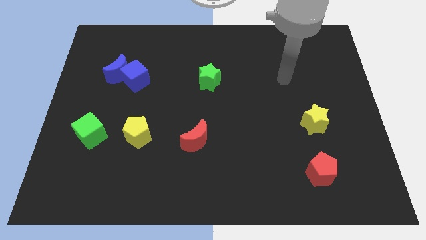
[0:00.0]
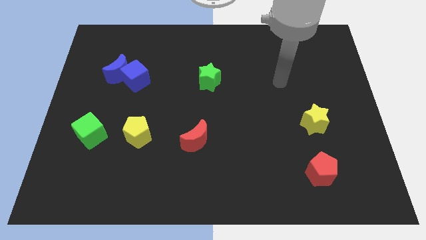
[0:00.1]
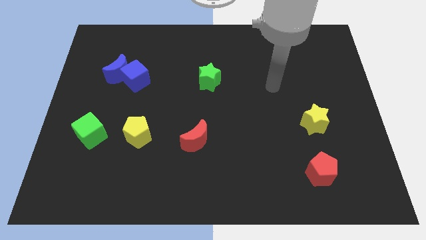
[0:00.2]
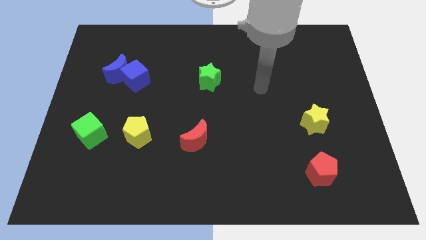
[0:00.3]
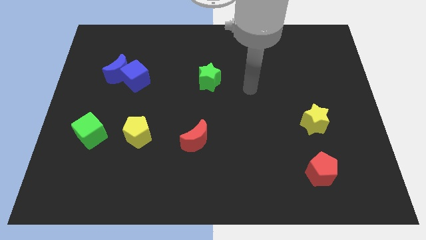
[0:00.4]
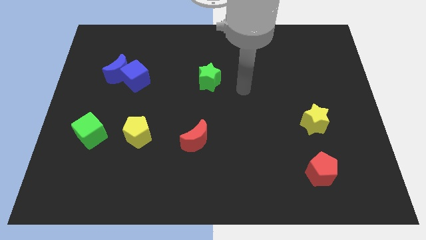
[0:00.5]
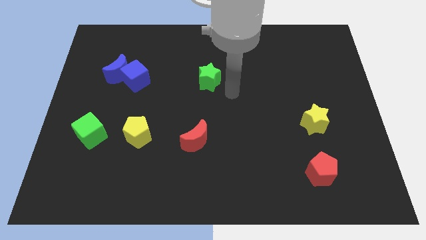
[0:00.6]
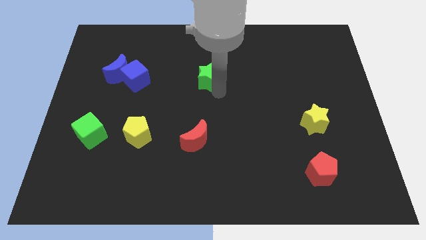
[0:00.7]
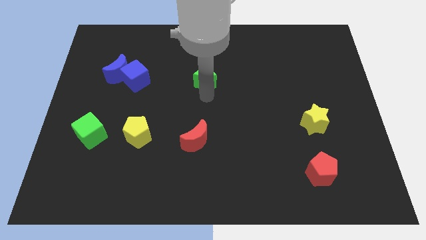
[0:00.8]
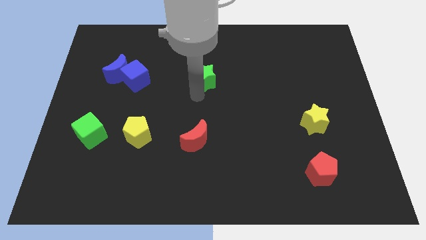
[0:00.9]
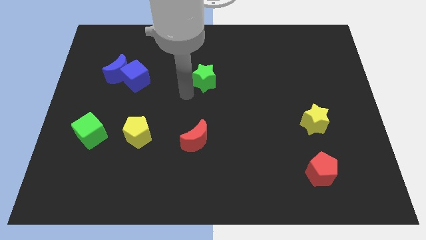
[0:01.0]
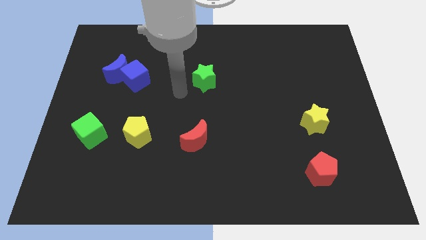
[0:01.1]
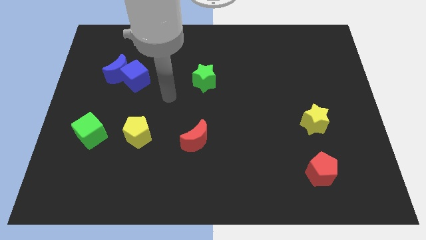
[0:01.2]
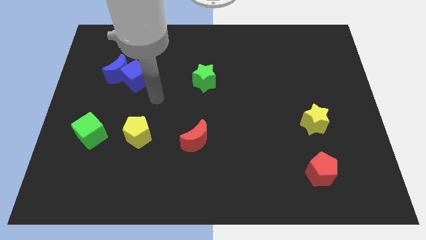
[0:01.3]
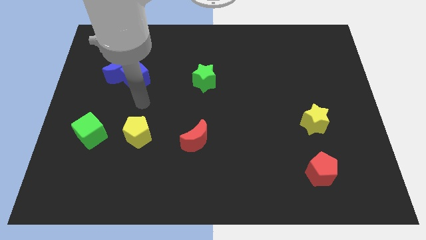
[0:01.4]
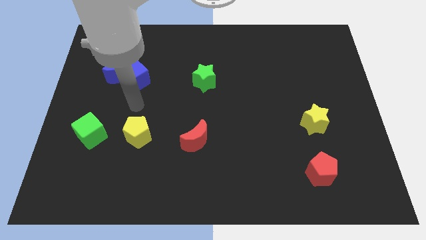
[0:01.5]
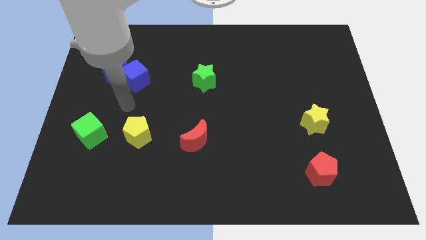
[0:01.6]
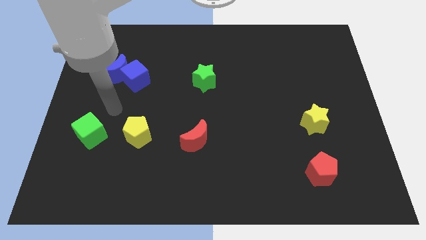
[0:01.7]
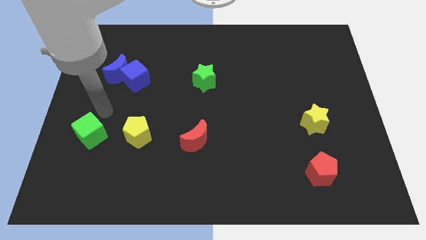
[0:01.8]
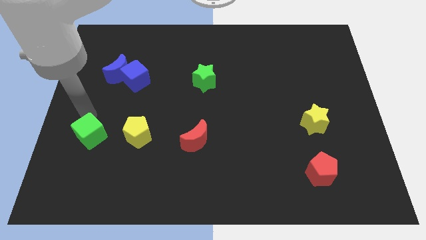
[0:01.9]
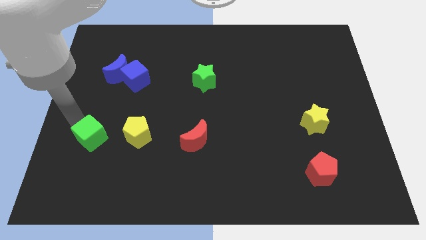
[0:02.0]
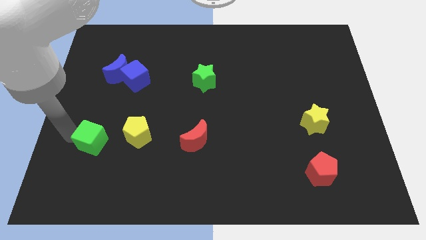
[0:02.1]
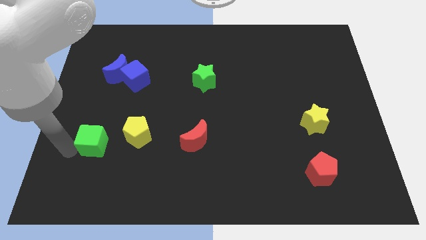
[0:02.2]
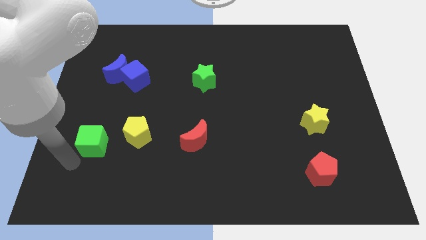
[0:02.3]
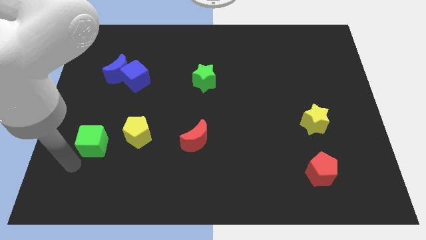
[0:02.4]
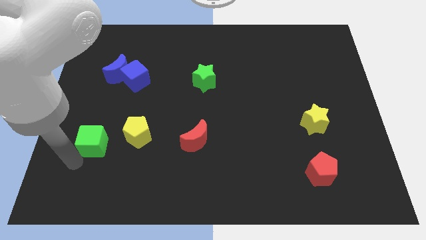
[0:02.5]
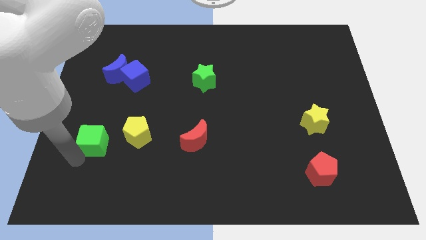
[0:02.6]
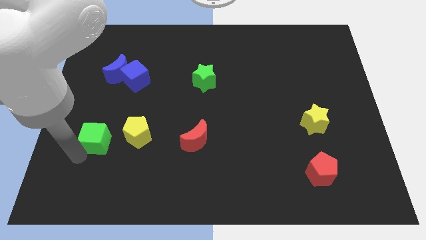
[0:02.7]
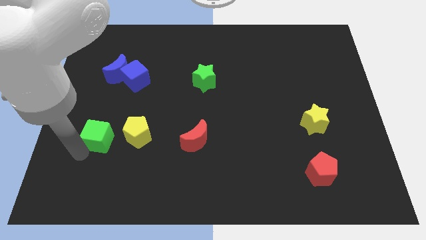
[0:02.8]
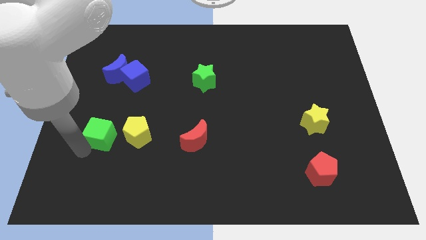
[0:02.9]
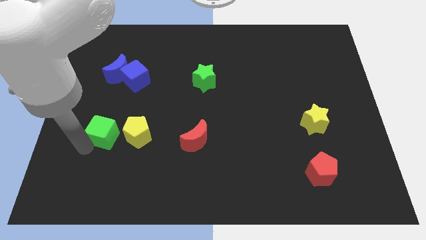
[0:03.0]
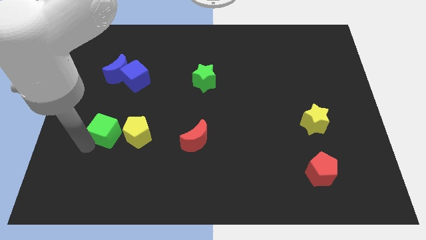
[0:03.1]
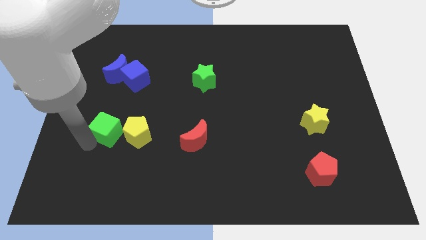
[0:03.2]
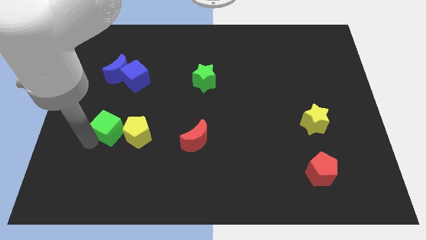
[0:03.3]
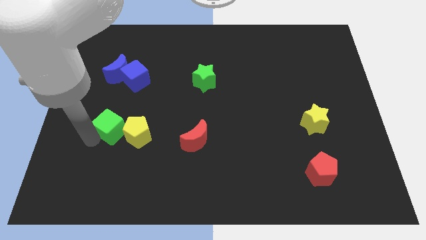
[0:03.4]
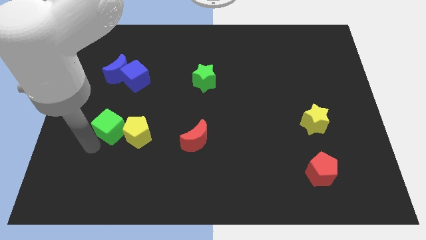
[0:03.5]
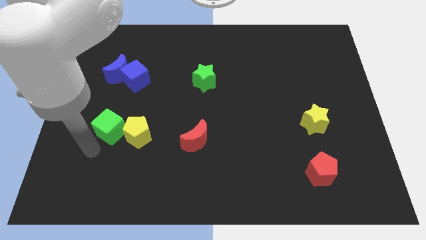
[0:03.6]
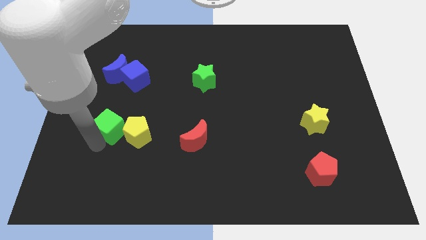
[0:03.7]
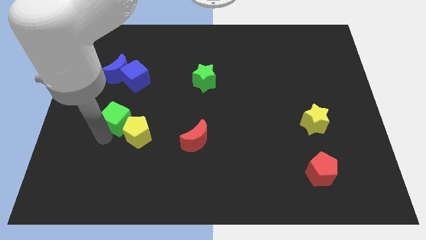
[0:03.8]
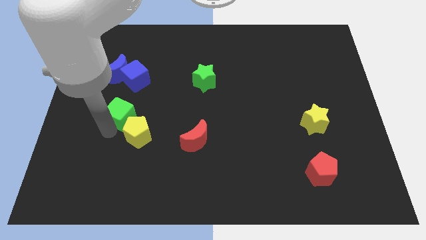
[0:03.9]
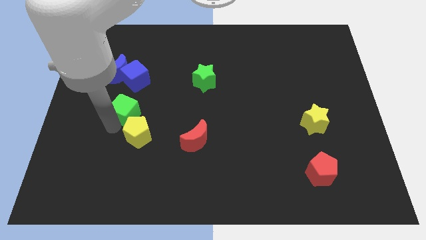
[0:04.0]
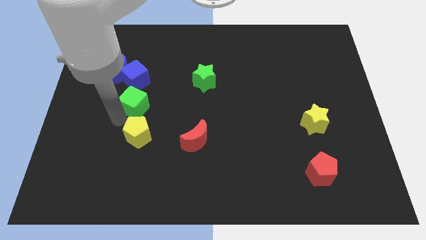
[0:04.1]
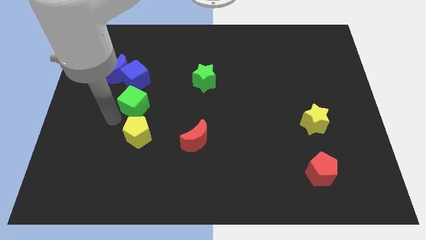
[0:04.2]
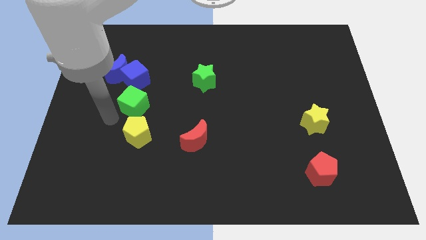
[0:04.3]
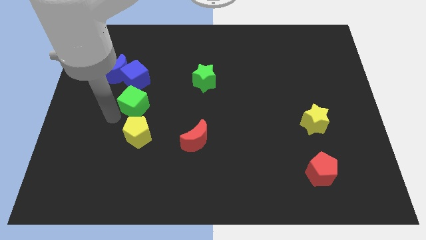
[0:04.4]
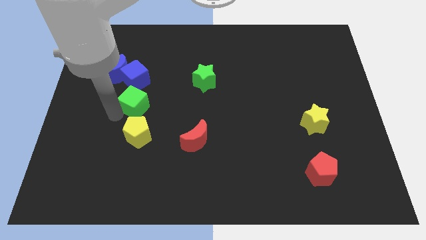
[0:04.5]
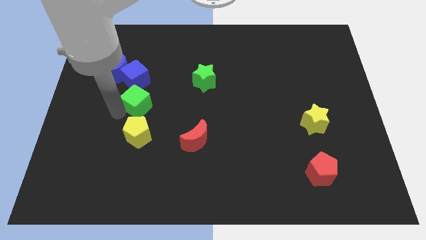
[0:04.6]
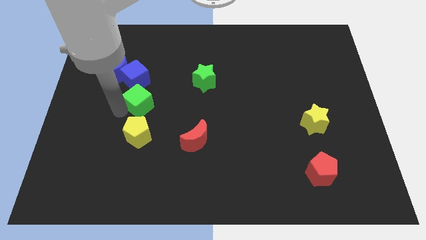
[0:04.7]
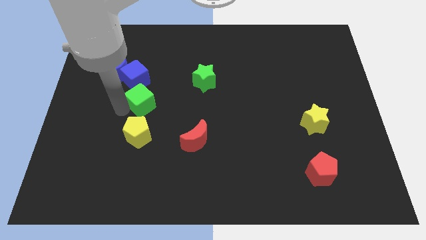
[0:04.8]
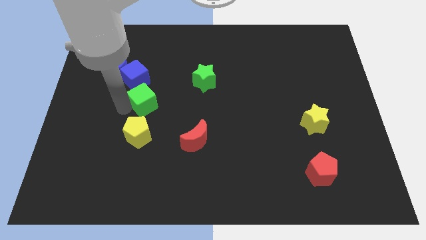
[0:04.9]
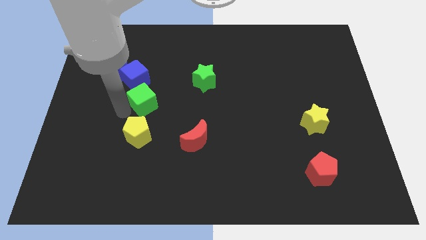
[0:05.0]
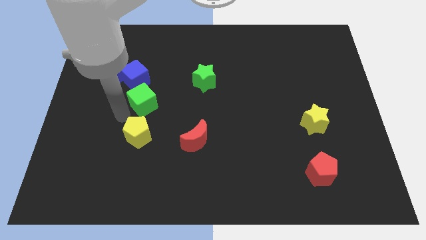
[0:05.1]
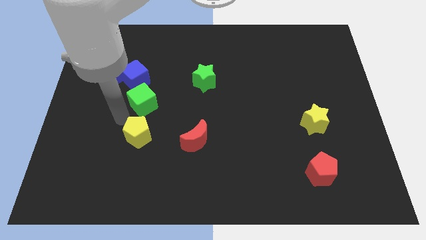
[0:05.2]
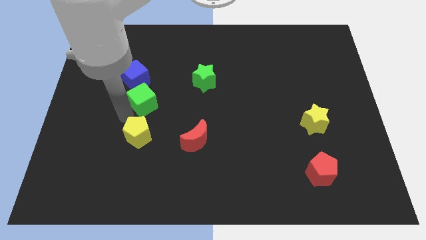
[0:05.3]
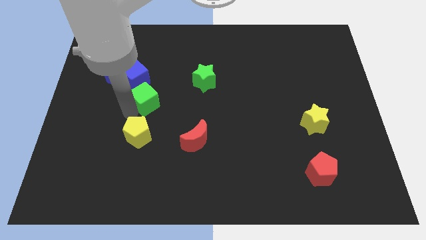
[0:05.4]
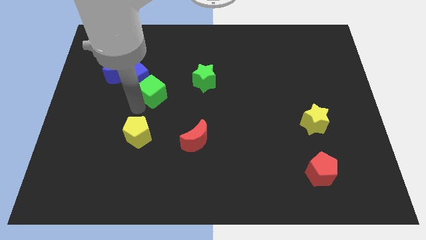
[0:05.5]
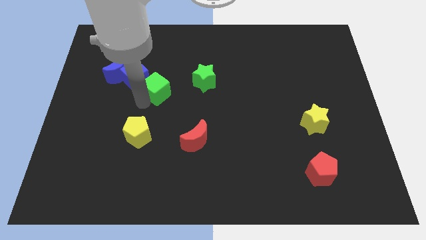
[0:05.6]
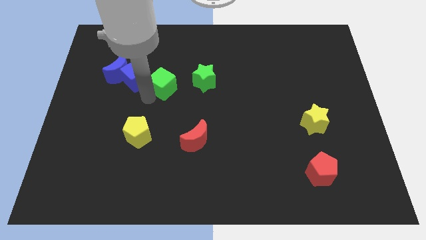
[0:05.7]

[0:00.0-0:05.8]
move the green cube upwards and right

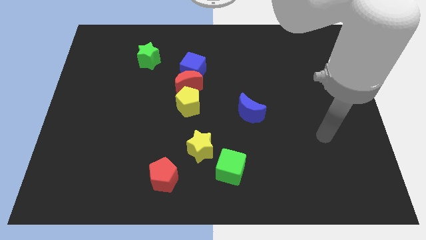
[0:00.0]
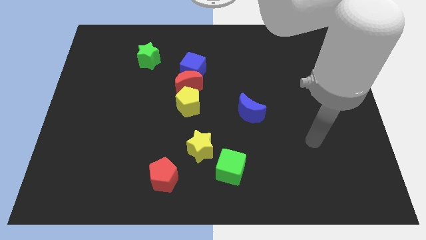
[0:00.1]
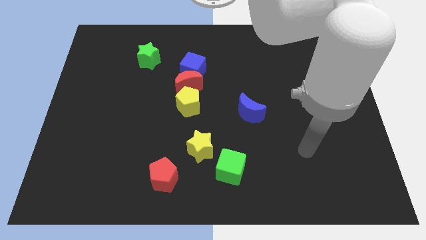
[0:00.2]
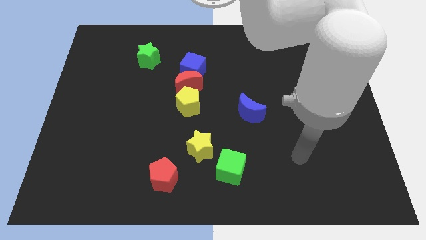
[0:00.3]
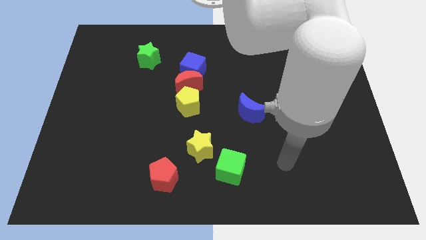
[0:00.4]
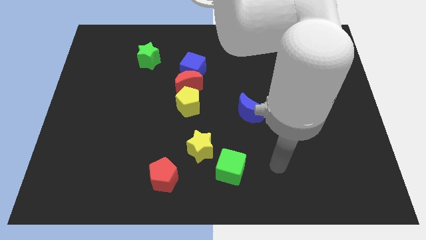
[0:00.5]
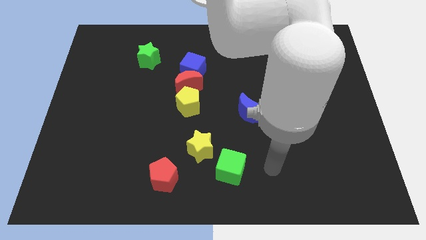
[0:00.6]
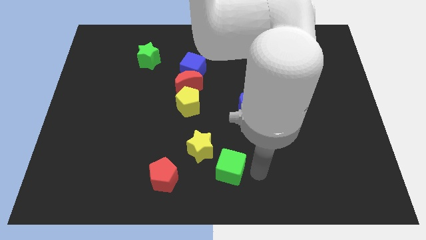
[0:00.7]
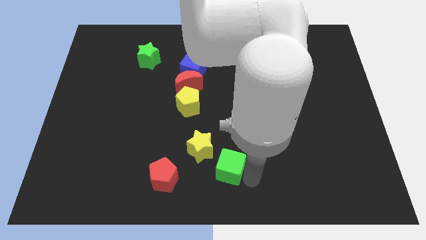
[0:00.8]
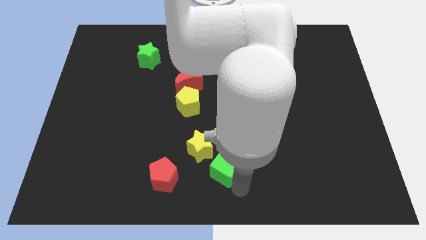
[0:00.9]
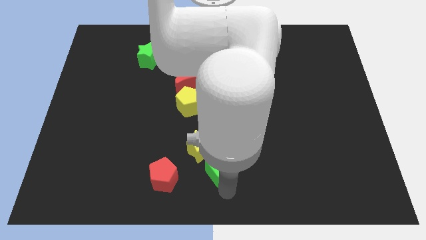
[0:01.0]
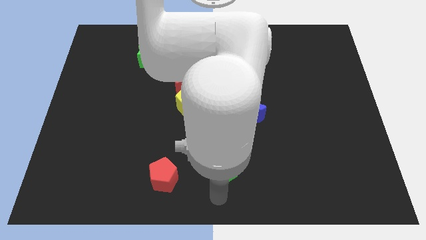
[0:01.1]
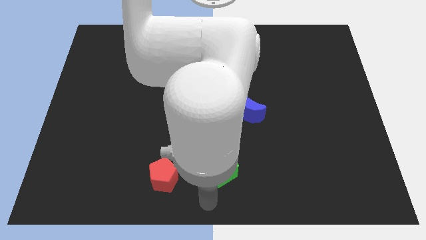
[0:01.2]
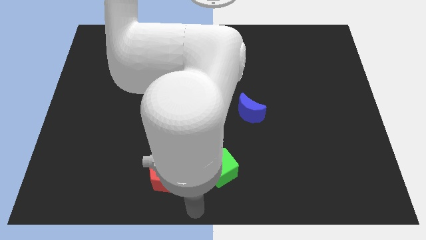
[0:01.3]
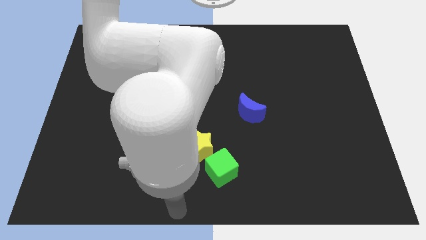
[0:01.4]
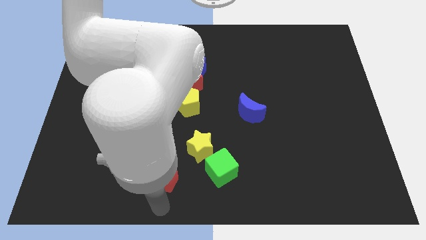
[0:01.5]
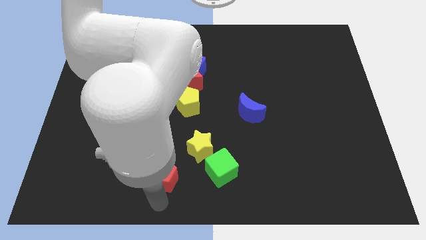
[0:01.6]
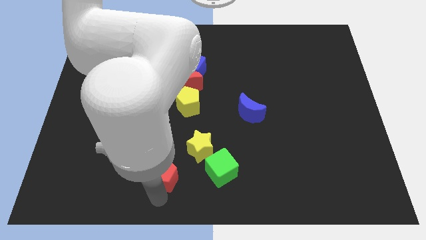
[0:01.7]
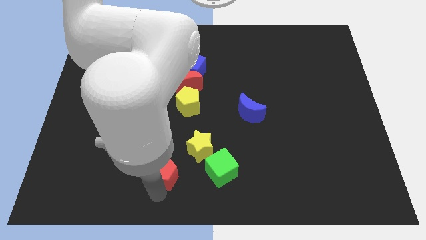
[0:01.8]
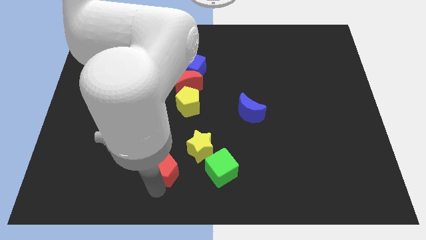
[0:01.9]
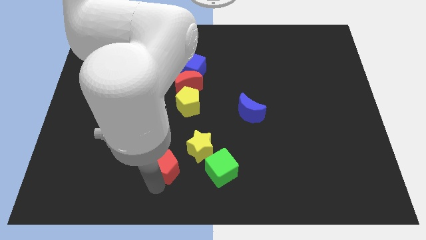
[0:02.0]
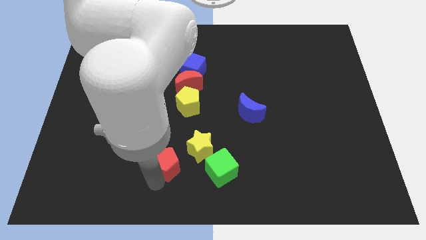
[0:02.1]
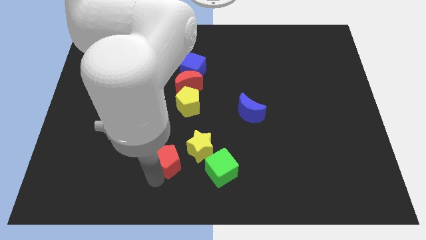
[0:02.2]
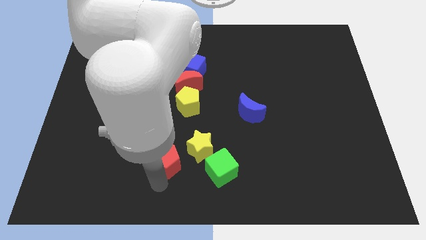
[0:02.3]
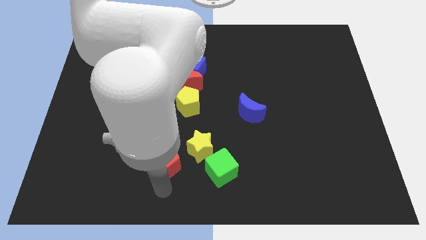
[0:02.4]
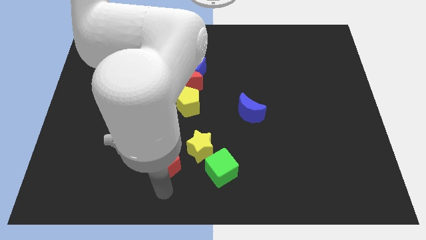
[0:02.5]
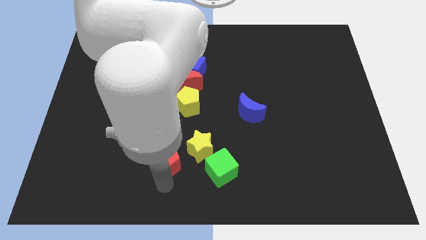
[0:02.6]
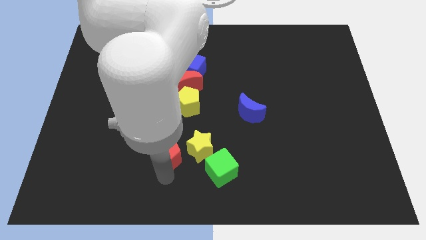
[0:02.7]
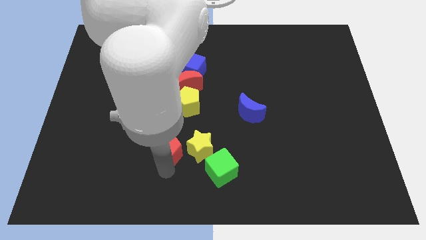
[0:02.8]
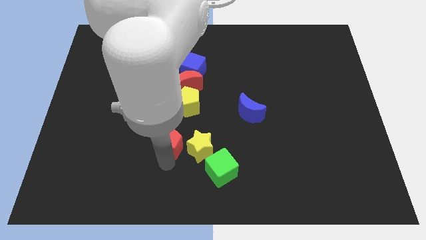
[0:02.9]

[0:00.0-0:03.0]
move the red pentagon upwards somewhat
